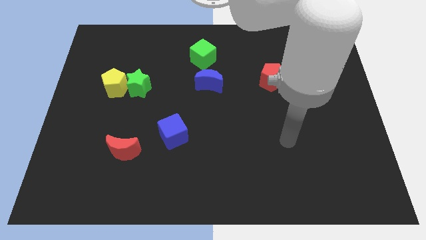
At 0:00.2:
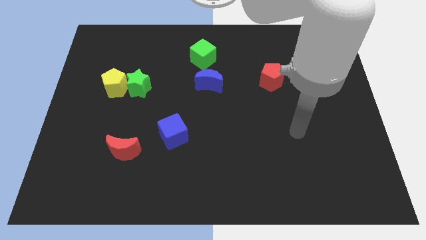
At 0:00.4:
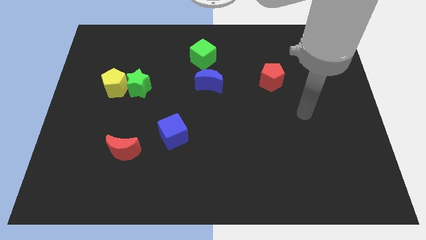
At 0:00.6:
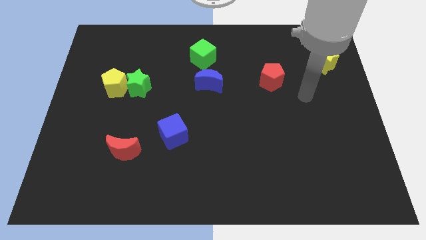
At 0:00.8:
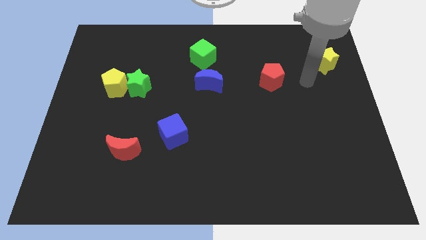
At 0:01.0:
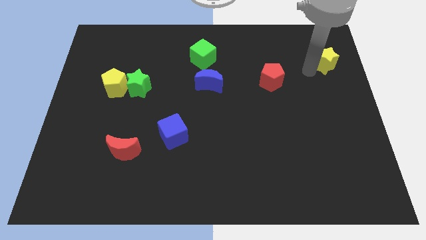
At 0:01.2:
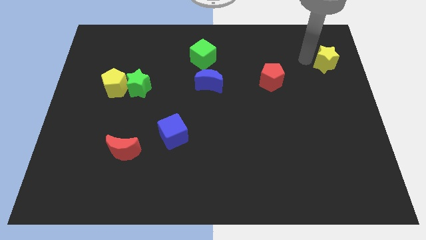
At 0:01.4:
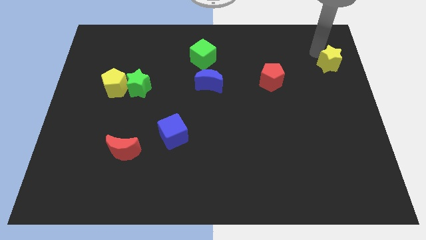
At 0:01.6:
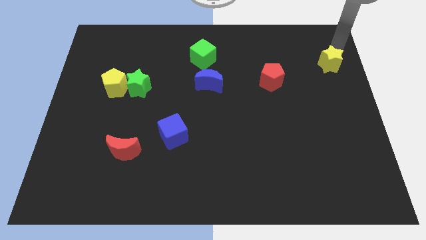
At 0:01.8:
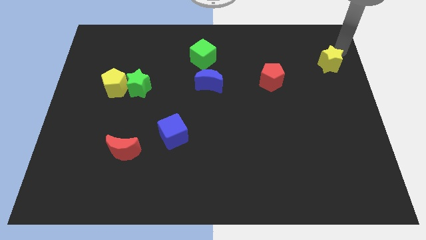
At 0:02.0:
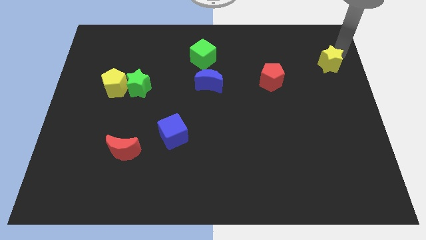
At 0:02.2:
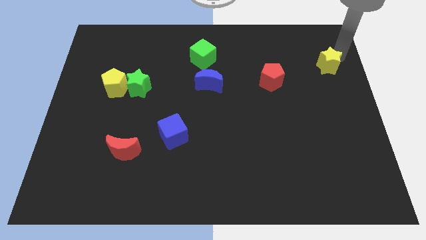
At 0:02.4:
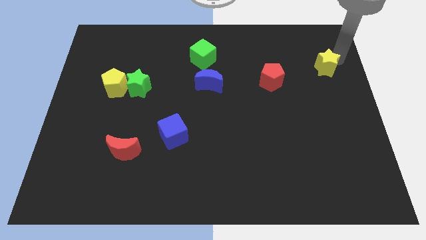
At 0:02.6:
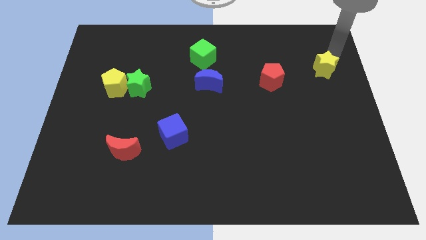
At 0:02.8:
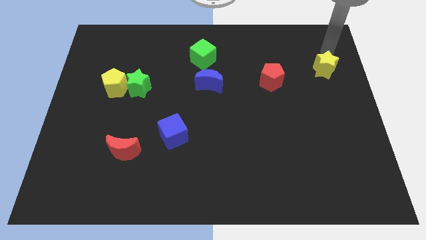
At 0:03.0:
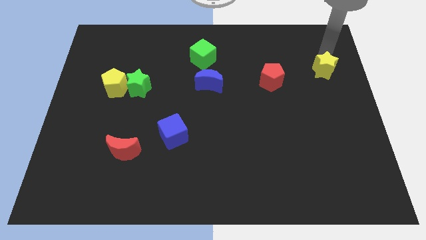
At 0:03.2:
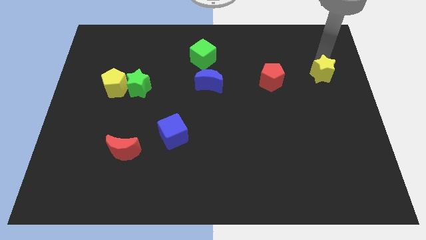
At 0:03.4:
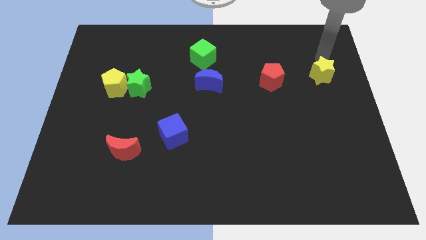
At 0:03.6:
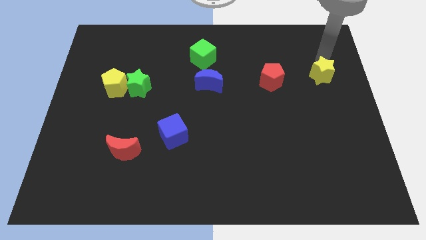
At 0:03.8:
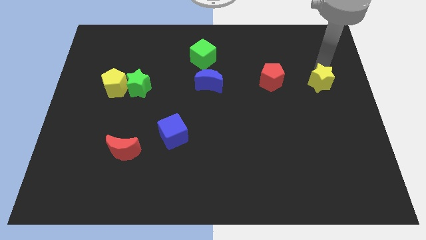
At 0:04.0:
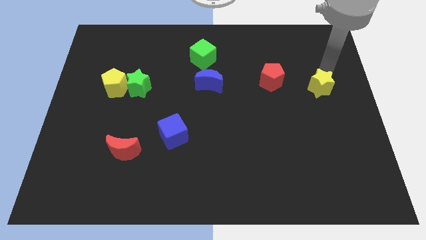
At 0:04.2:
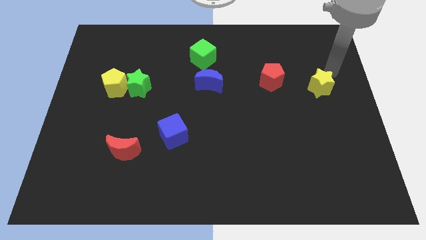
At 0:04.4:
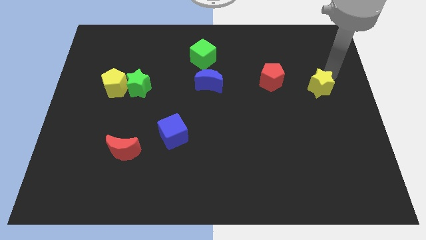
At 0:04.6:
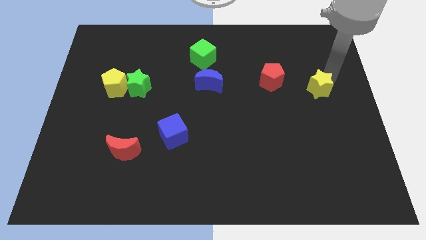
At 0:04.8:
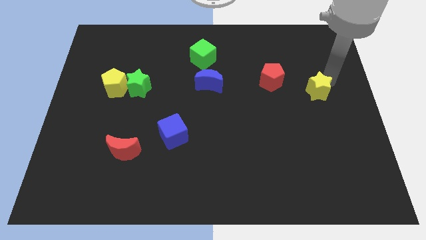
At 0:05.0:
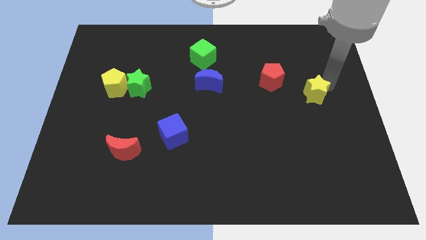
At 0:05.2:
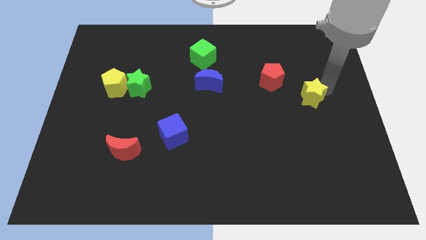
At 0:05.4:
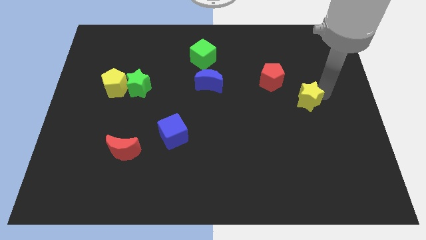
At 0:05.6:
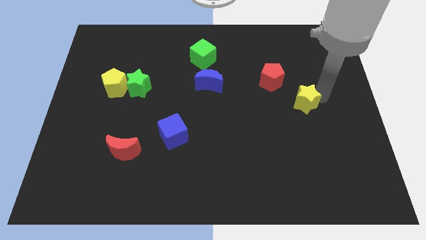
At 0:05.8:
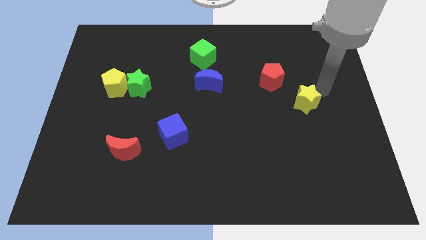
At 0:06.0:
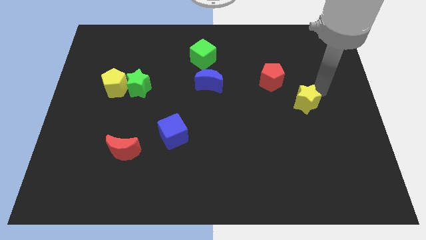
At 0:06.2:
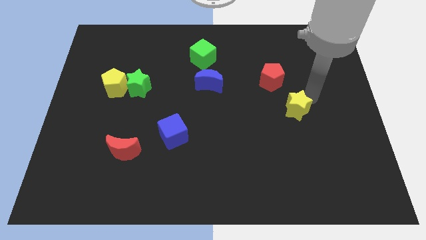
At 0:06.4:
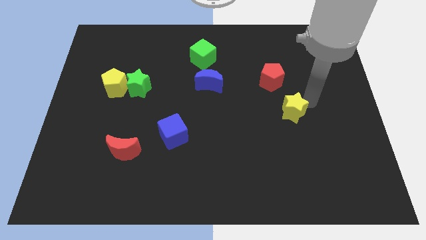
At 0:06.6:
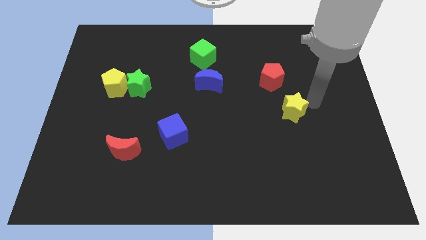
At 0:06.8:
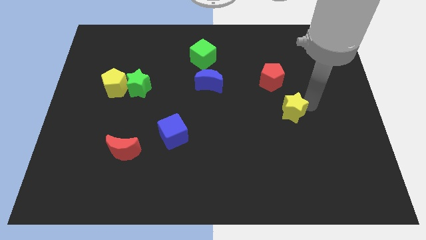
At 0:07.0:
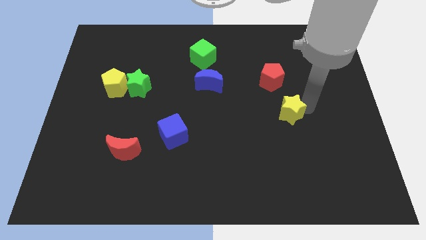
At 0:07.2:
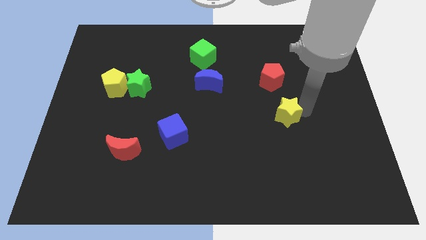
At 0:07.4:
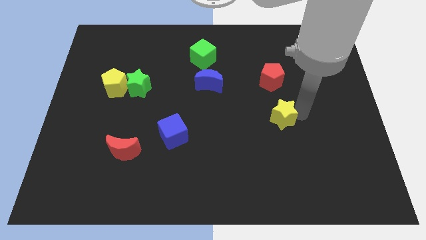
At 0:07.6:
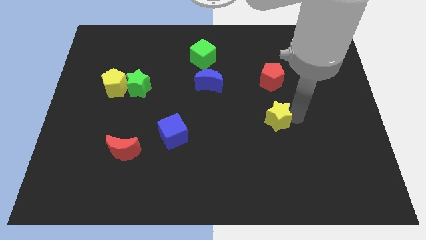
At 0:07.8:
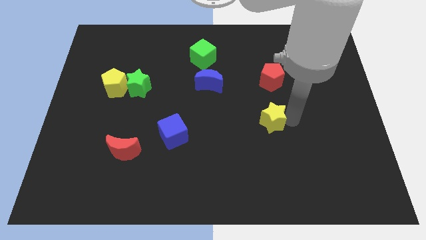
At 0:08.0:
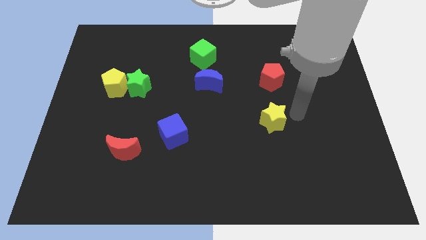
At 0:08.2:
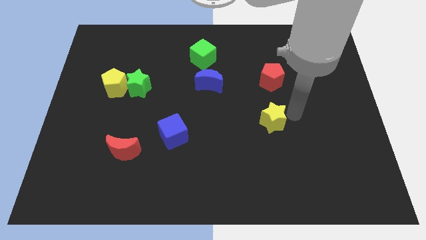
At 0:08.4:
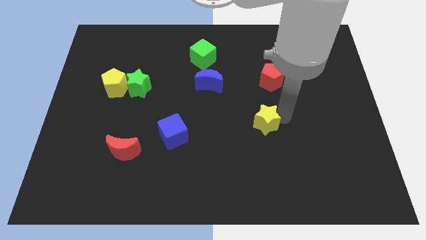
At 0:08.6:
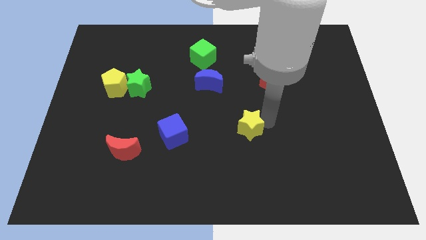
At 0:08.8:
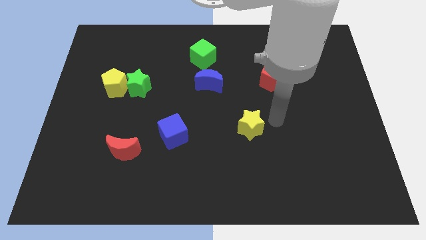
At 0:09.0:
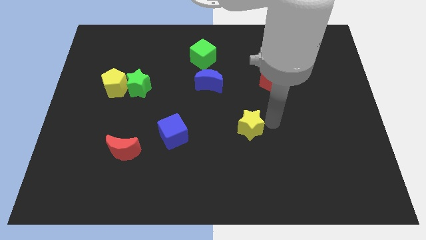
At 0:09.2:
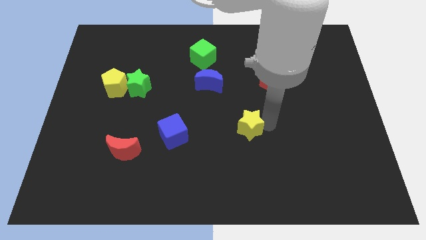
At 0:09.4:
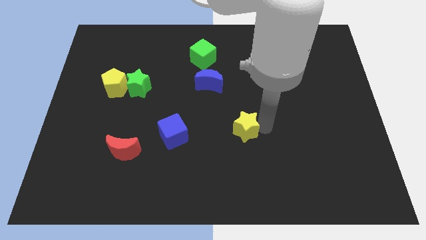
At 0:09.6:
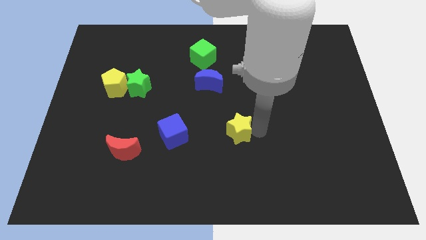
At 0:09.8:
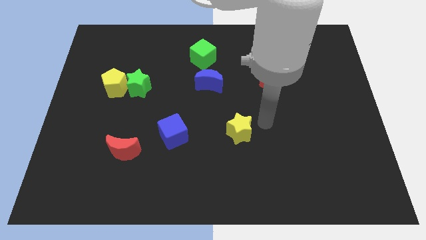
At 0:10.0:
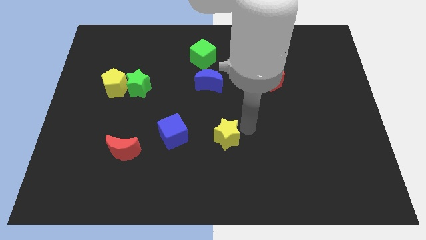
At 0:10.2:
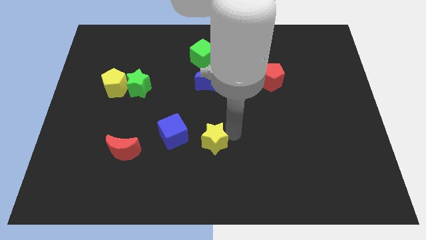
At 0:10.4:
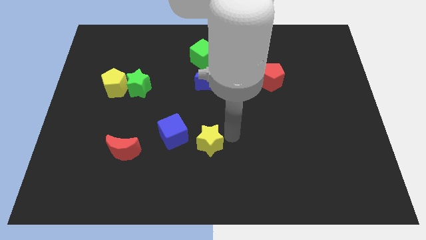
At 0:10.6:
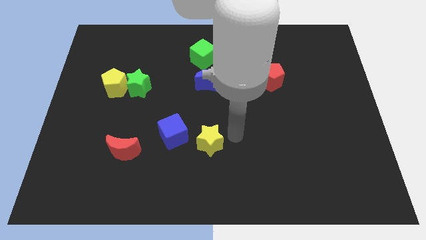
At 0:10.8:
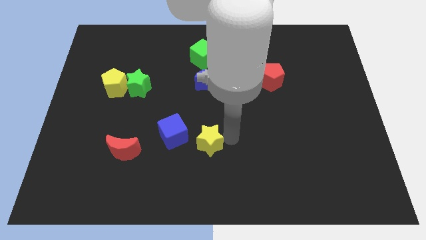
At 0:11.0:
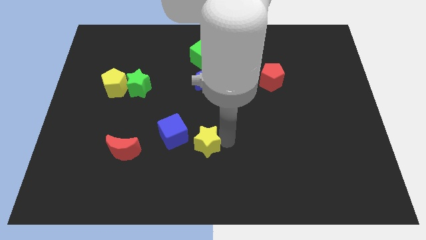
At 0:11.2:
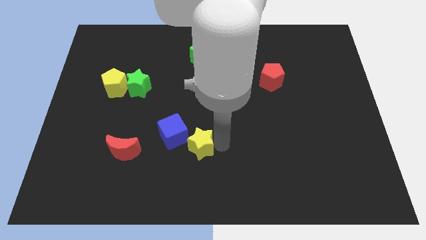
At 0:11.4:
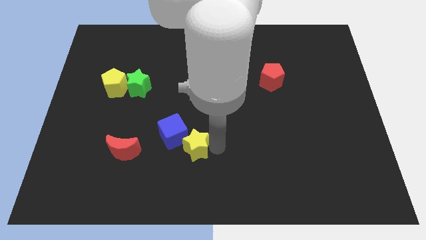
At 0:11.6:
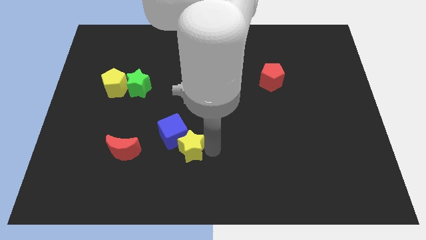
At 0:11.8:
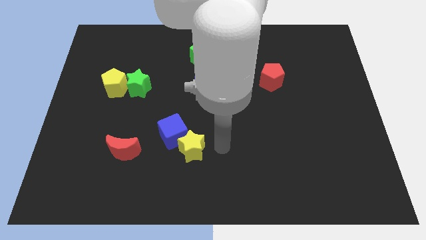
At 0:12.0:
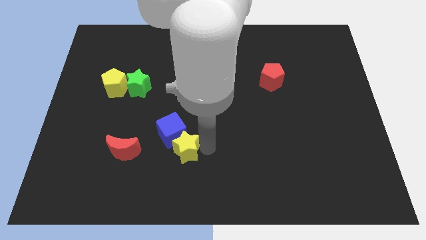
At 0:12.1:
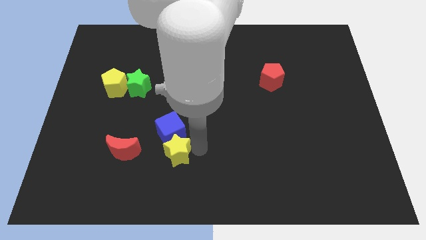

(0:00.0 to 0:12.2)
push the yellow star to the bottom left side of the blue cube

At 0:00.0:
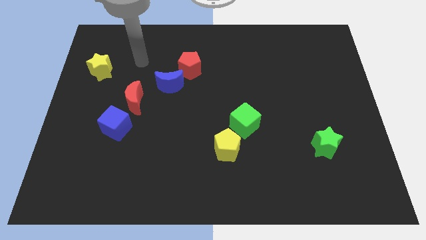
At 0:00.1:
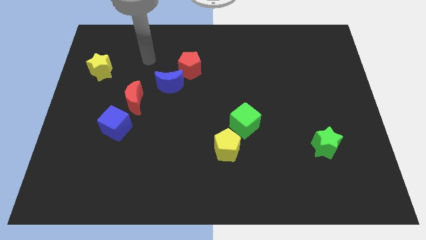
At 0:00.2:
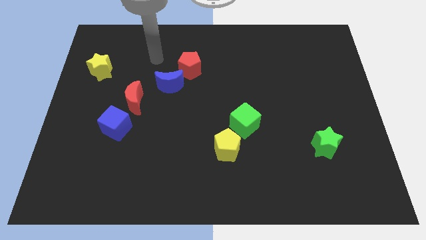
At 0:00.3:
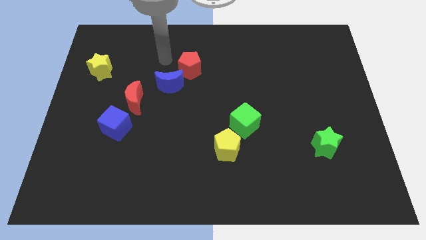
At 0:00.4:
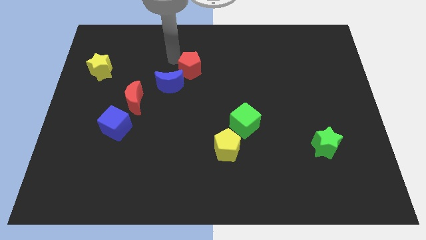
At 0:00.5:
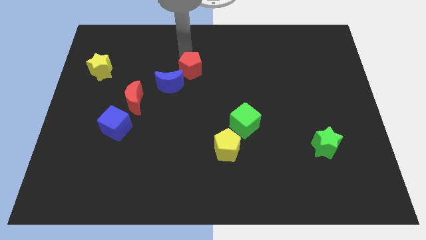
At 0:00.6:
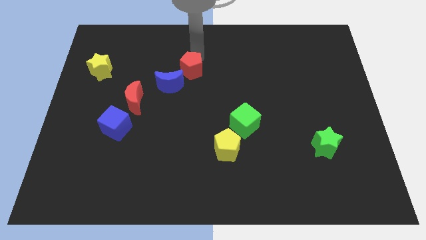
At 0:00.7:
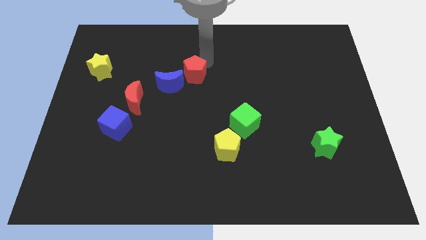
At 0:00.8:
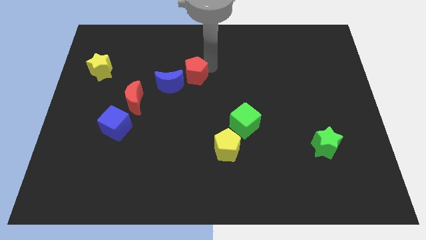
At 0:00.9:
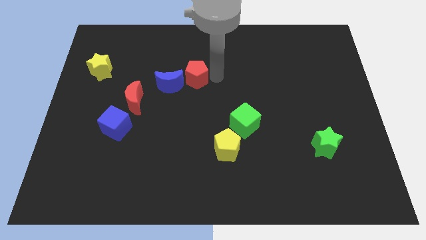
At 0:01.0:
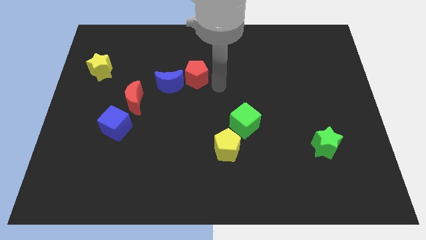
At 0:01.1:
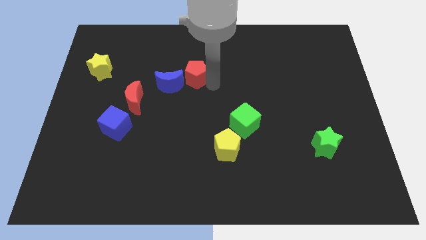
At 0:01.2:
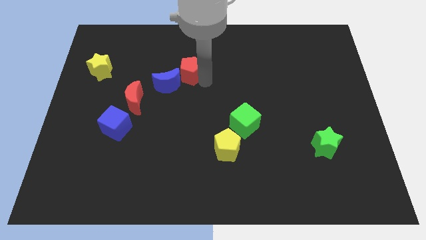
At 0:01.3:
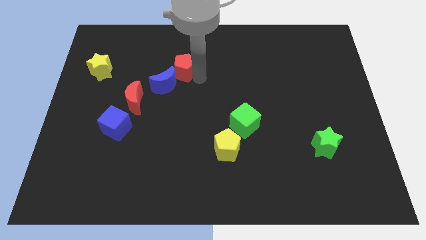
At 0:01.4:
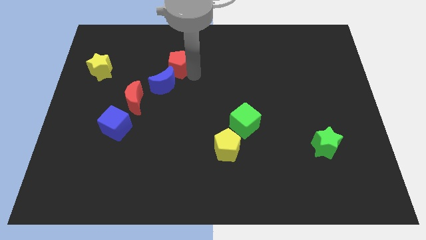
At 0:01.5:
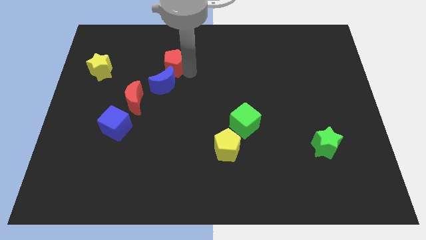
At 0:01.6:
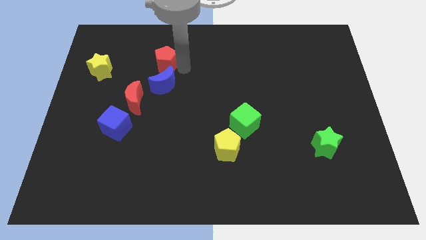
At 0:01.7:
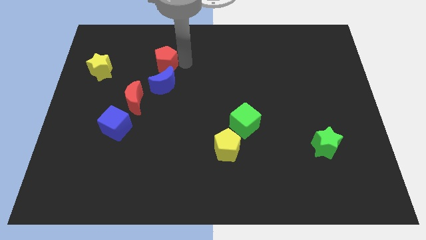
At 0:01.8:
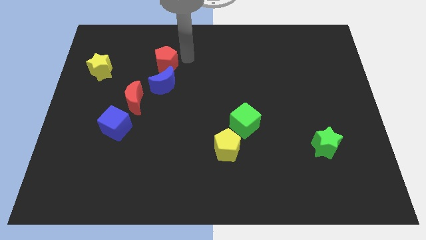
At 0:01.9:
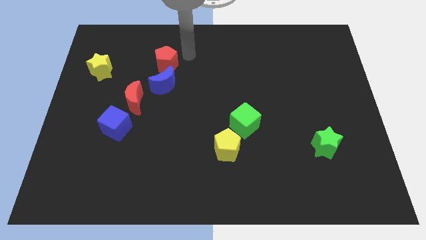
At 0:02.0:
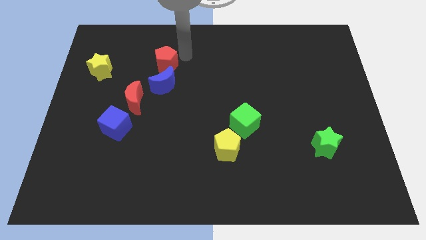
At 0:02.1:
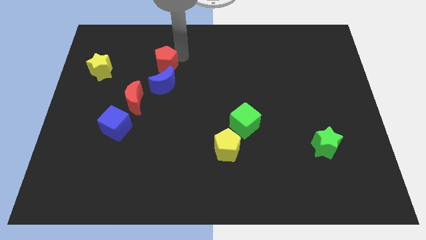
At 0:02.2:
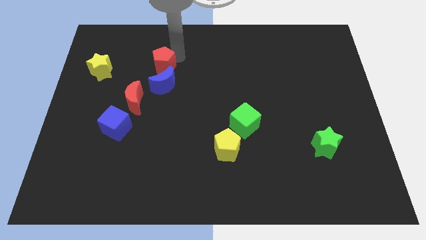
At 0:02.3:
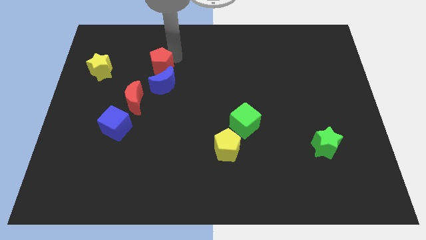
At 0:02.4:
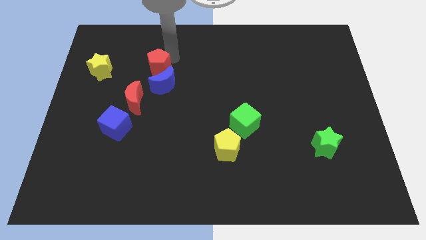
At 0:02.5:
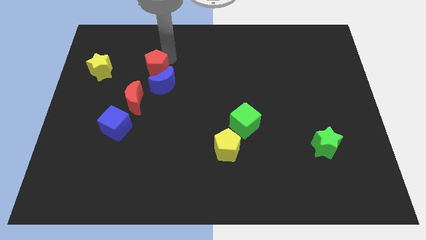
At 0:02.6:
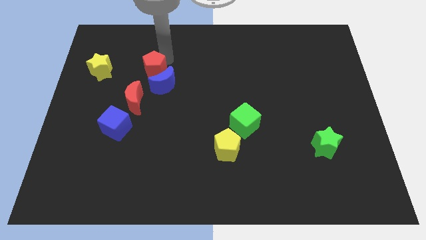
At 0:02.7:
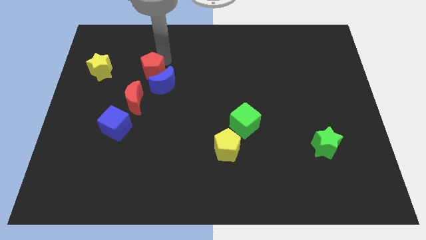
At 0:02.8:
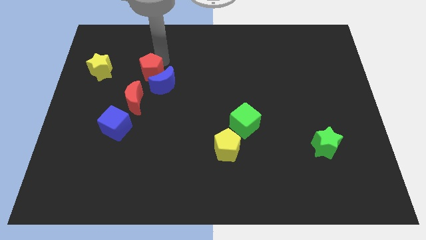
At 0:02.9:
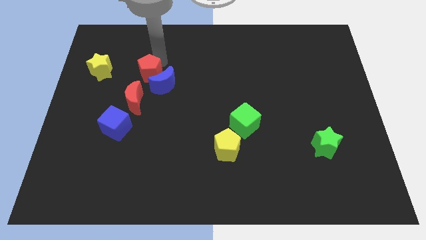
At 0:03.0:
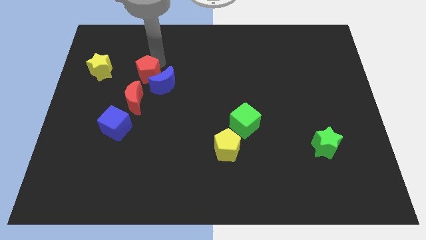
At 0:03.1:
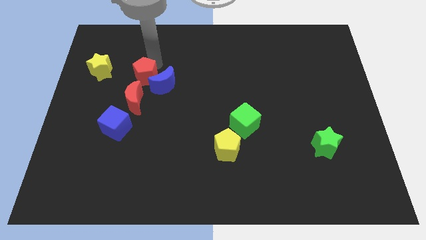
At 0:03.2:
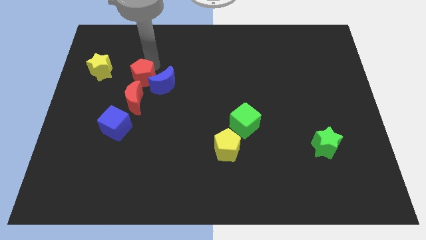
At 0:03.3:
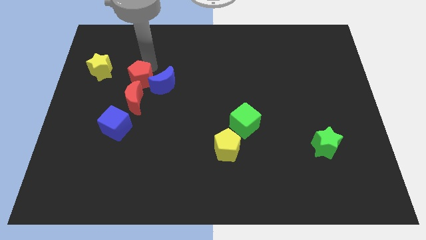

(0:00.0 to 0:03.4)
slide the red pentagon to the top side of the blue cube
